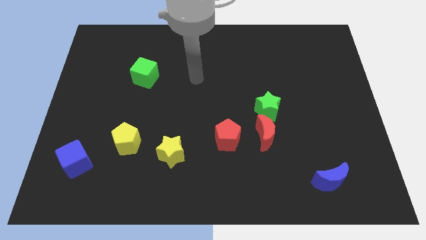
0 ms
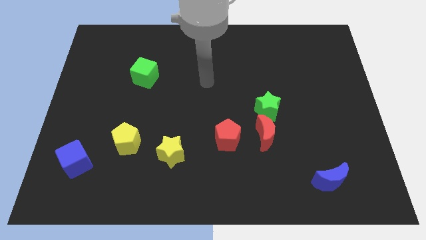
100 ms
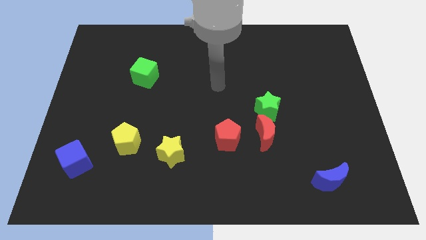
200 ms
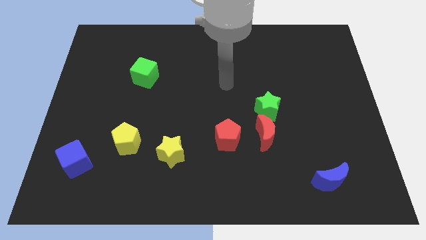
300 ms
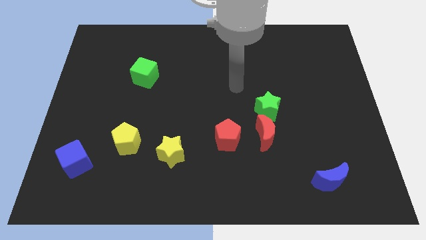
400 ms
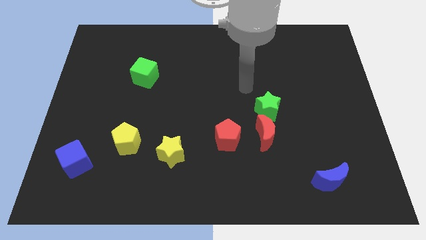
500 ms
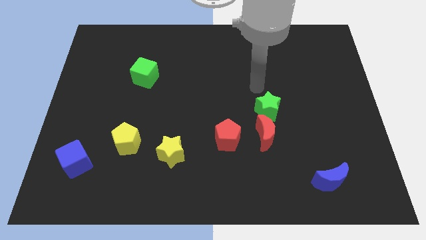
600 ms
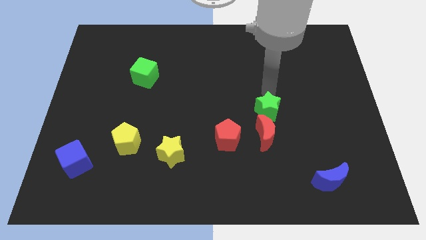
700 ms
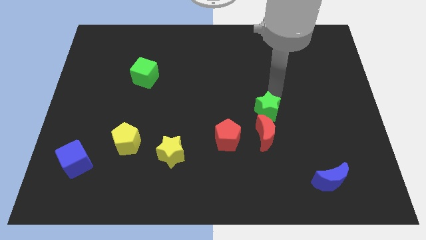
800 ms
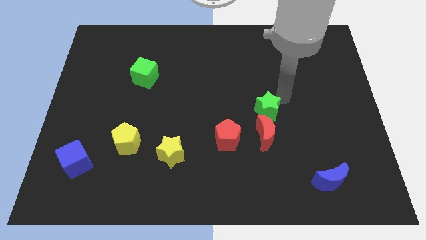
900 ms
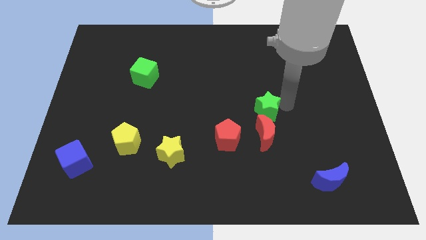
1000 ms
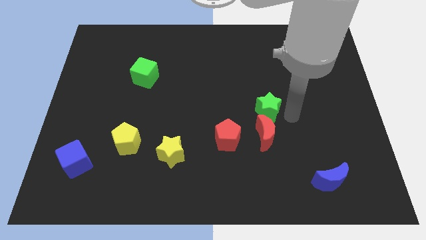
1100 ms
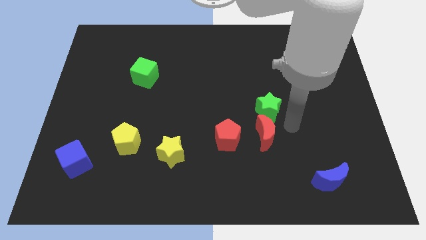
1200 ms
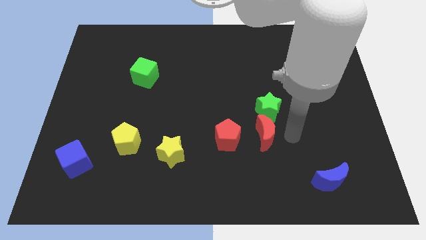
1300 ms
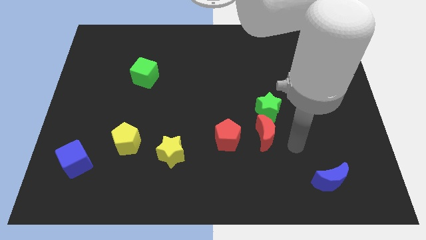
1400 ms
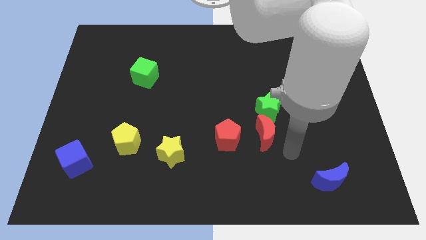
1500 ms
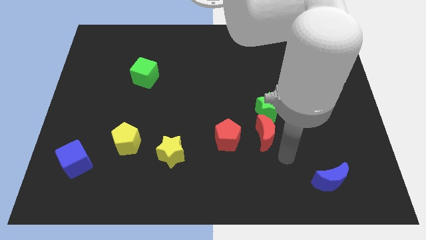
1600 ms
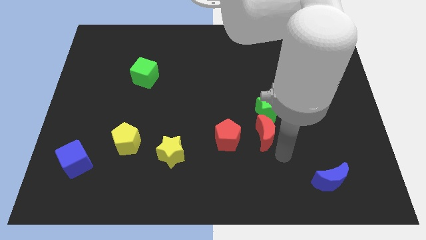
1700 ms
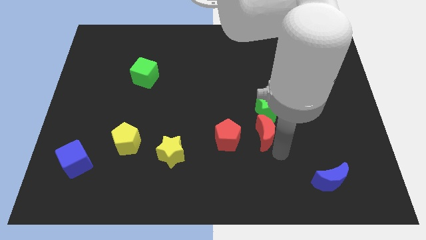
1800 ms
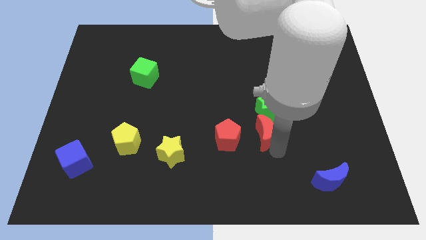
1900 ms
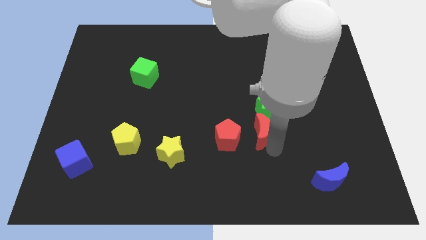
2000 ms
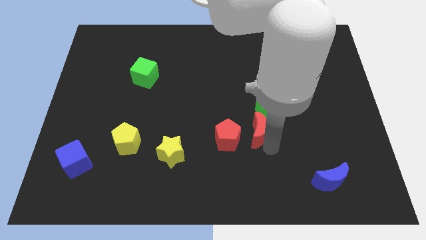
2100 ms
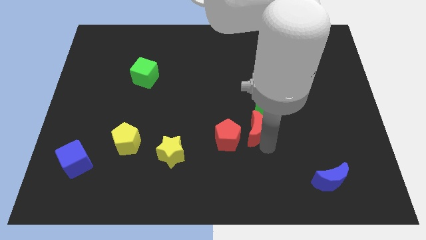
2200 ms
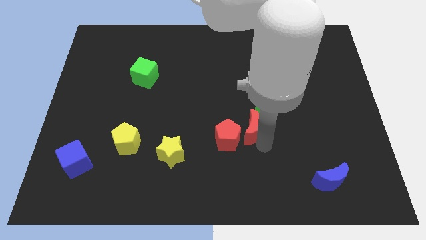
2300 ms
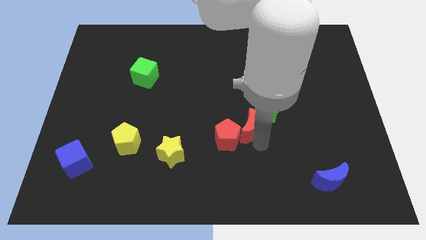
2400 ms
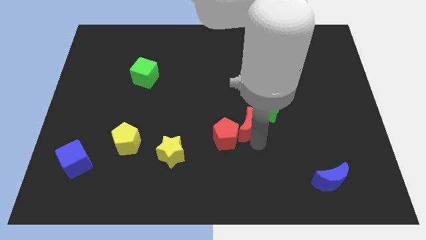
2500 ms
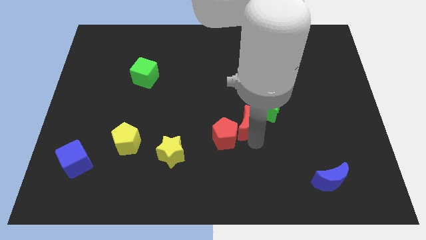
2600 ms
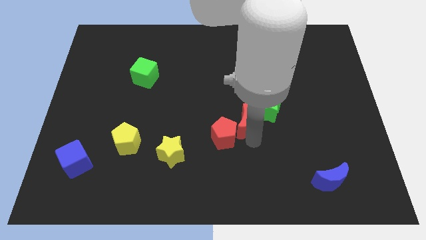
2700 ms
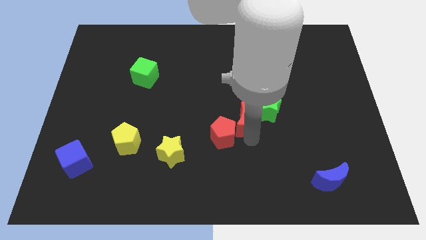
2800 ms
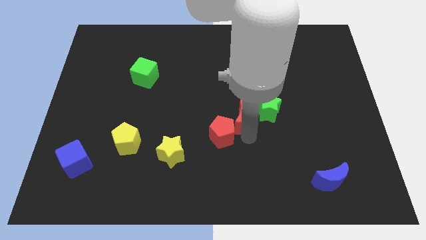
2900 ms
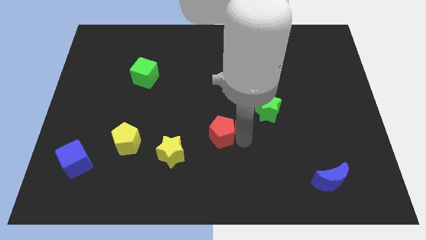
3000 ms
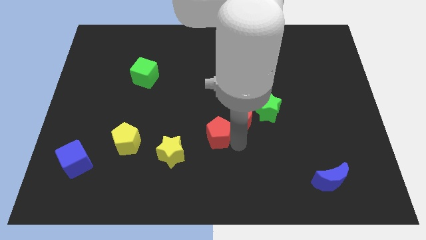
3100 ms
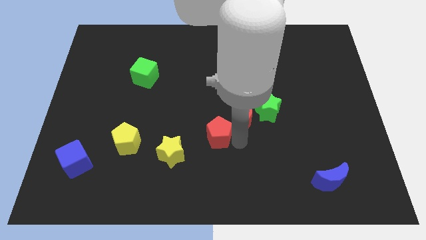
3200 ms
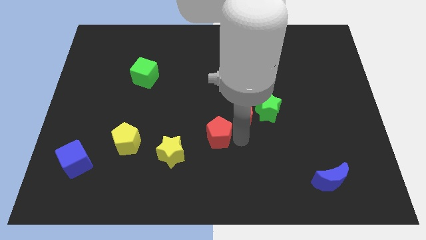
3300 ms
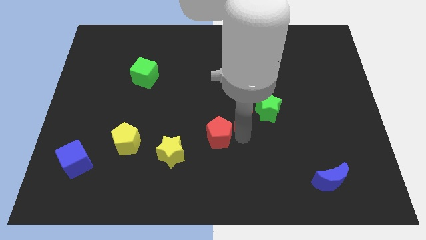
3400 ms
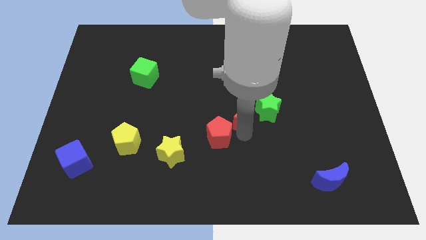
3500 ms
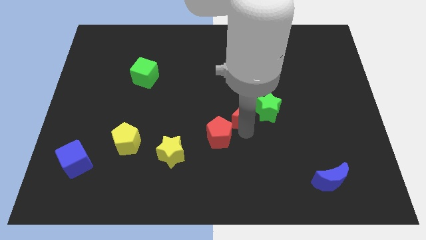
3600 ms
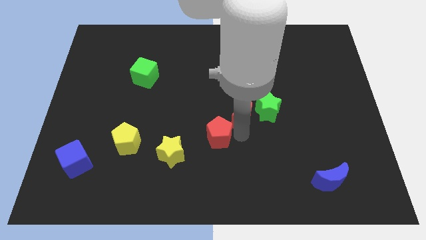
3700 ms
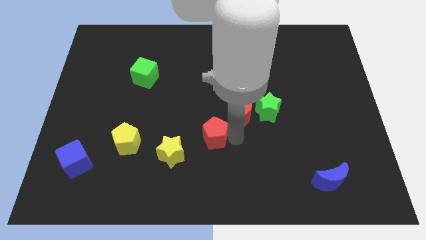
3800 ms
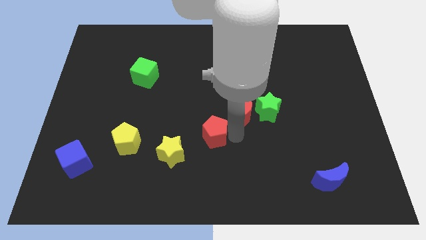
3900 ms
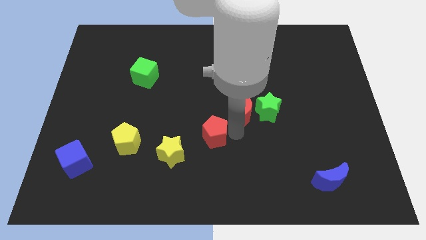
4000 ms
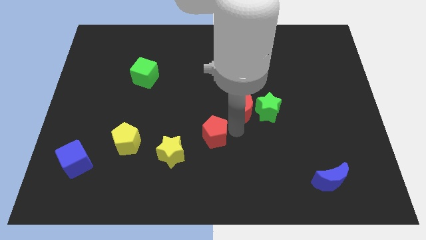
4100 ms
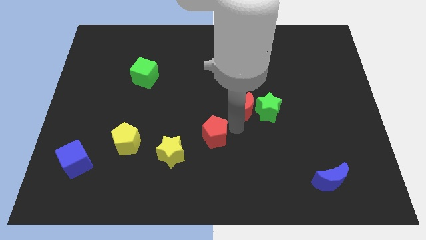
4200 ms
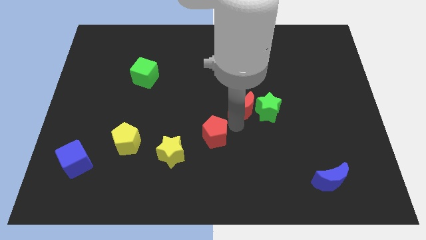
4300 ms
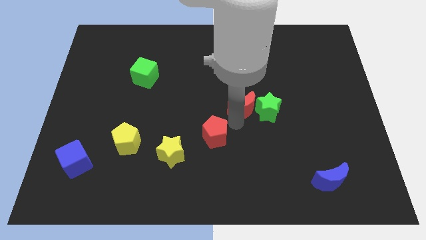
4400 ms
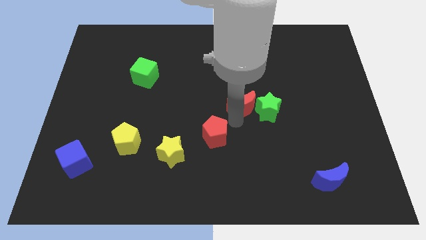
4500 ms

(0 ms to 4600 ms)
move the red moon up slightly

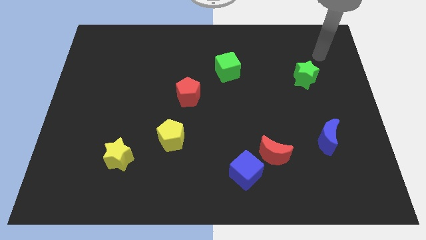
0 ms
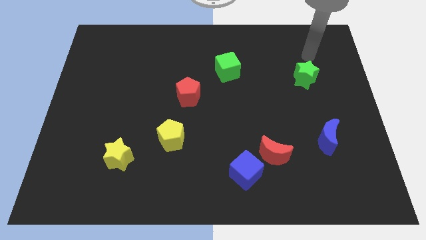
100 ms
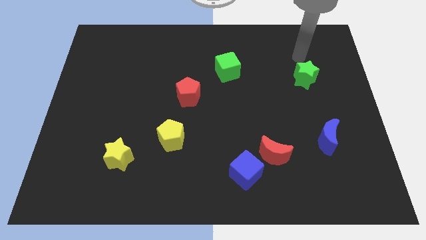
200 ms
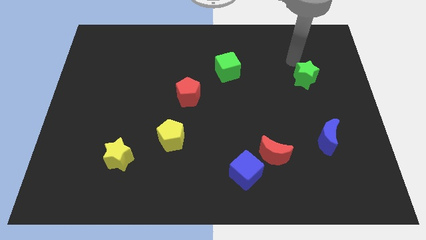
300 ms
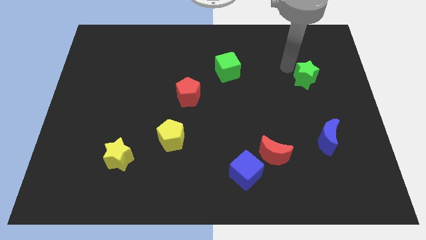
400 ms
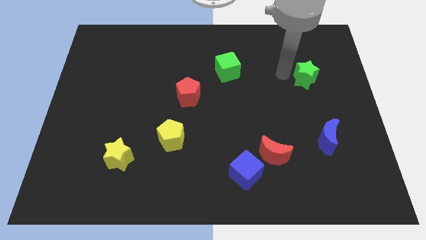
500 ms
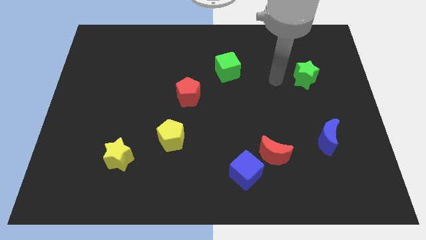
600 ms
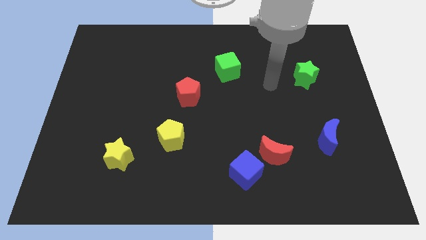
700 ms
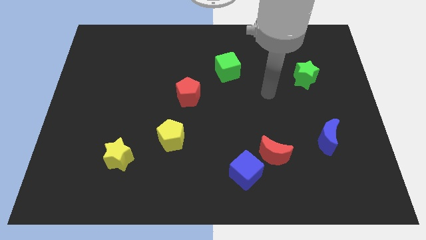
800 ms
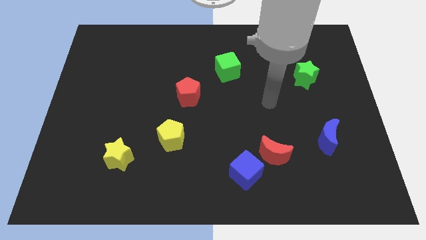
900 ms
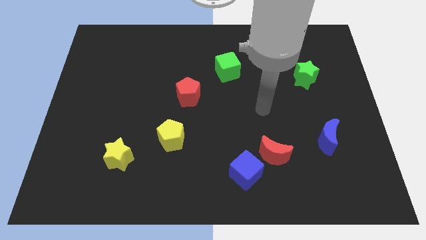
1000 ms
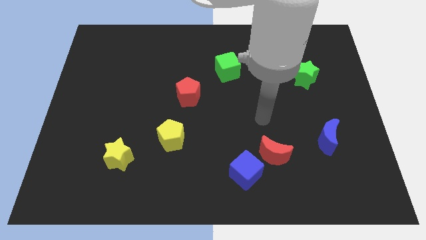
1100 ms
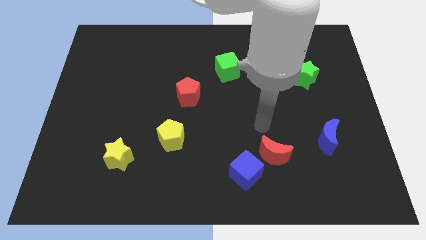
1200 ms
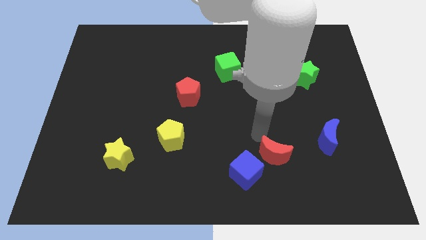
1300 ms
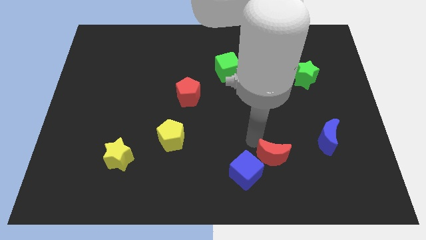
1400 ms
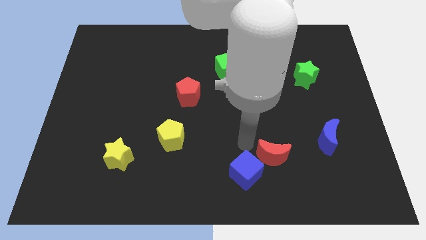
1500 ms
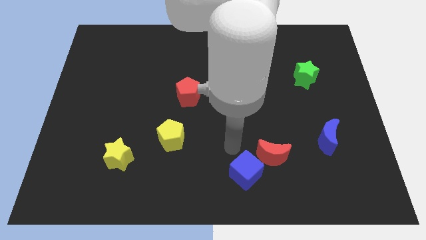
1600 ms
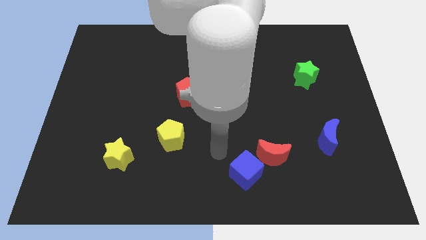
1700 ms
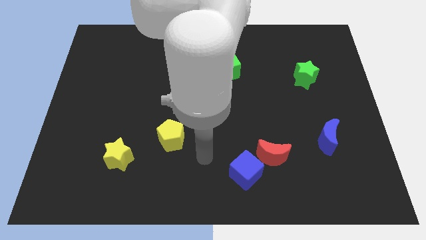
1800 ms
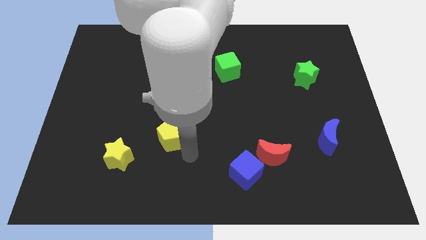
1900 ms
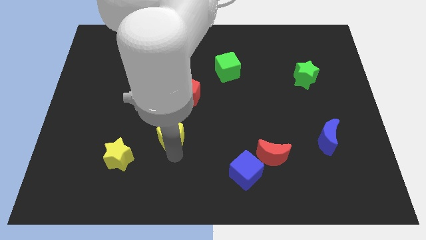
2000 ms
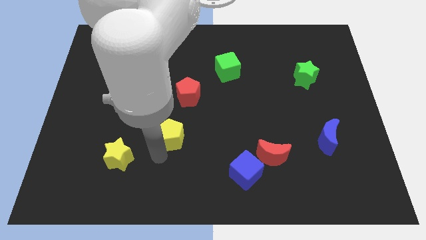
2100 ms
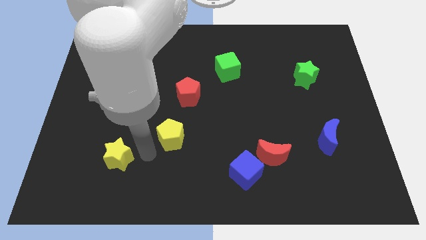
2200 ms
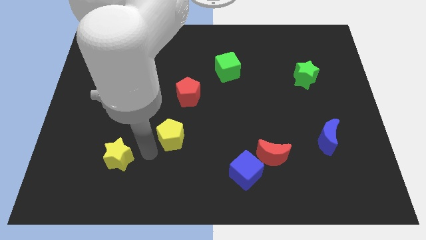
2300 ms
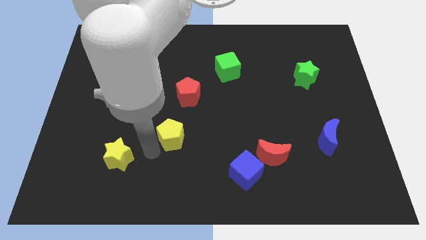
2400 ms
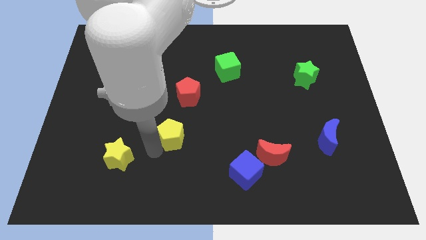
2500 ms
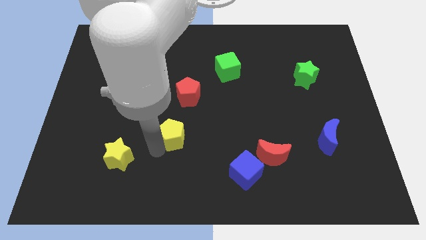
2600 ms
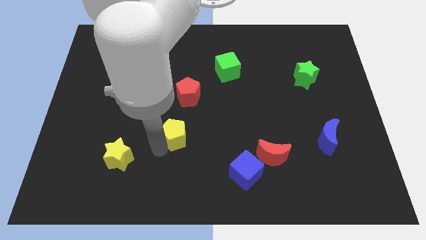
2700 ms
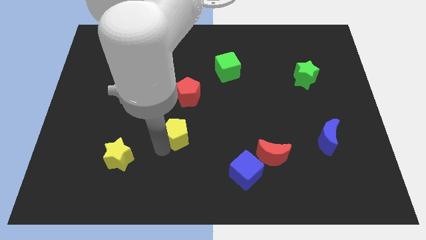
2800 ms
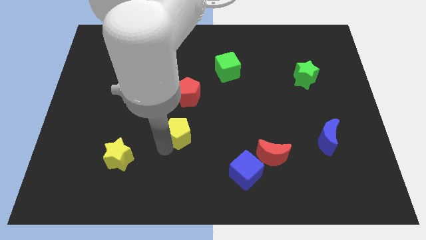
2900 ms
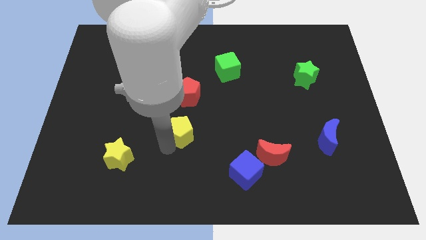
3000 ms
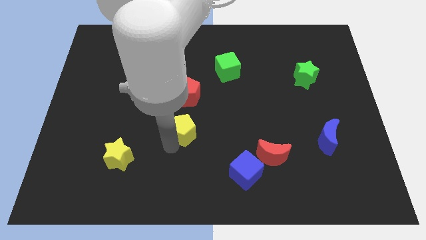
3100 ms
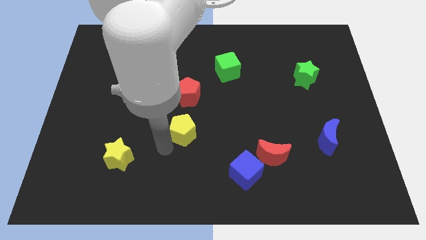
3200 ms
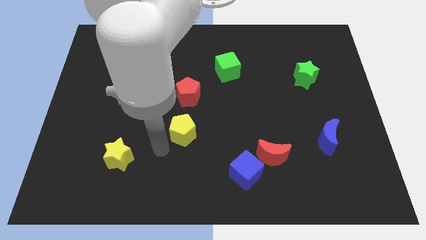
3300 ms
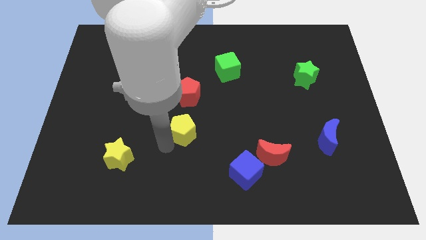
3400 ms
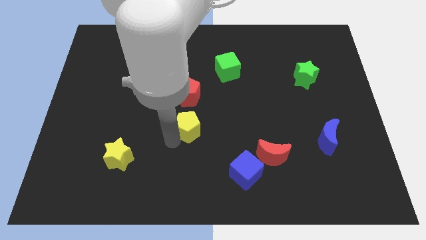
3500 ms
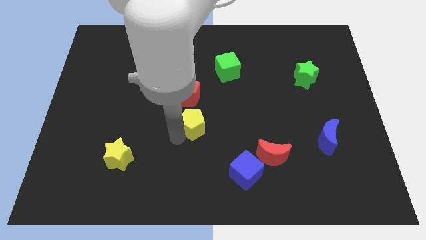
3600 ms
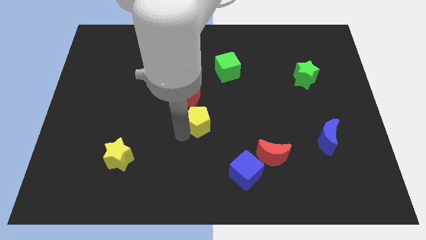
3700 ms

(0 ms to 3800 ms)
push the yellow pentagon up and to the right diagonally somewhat
